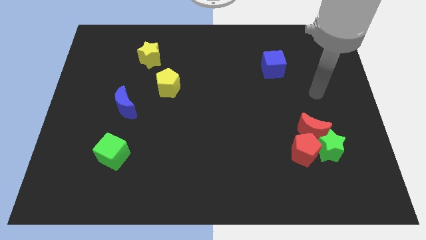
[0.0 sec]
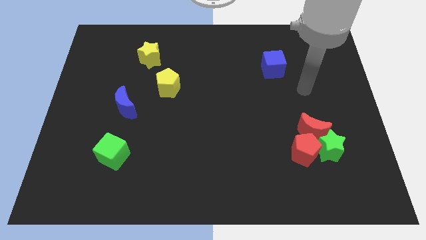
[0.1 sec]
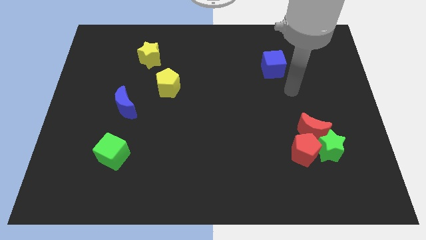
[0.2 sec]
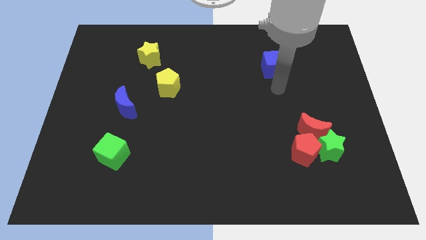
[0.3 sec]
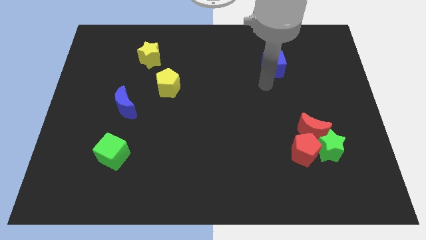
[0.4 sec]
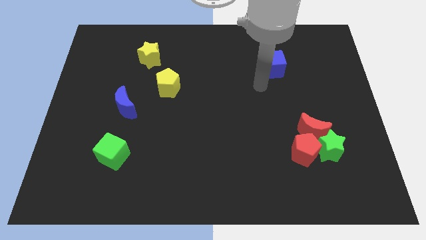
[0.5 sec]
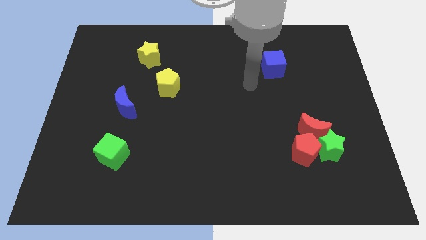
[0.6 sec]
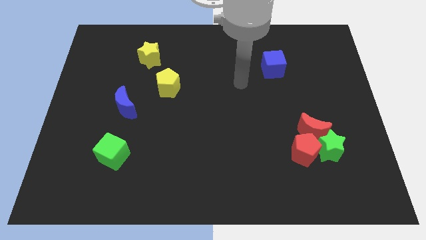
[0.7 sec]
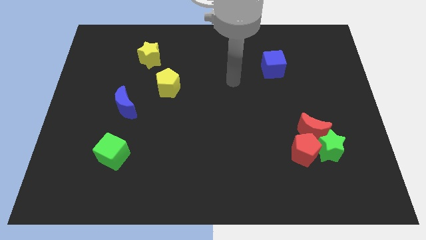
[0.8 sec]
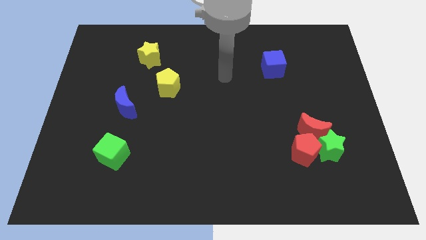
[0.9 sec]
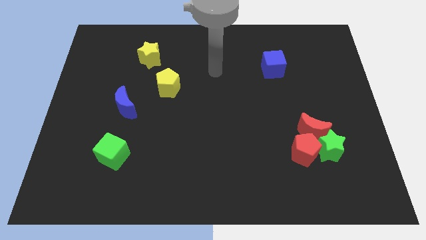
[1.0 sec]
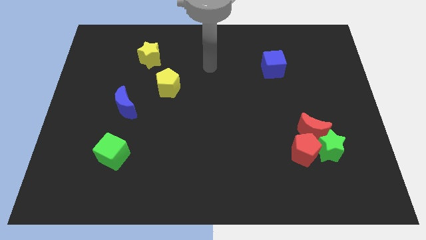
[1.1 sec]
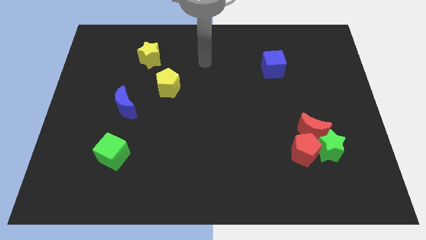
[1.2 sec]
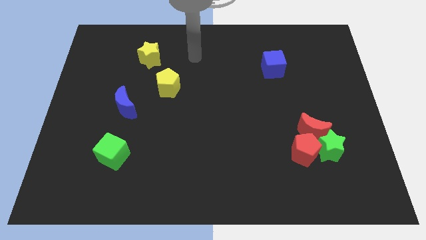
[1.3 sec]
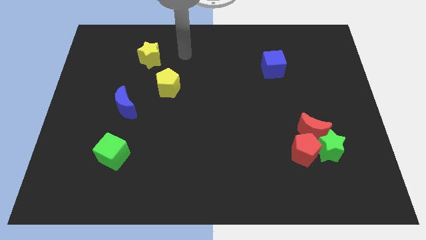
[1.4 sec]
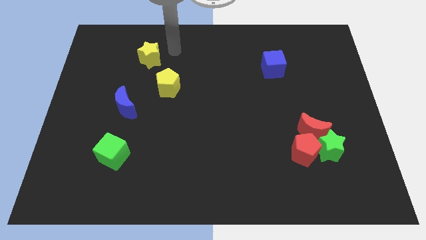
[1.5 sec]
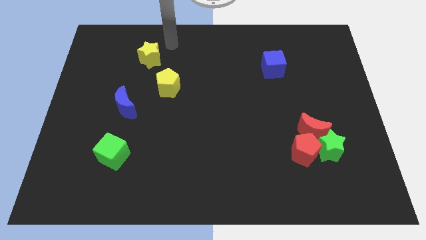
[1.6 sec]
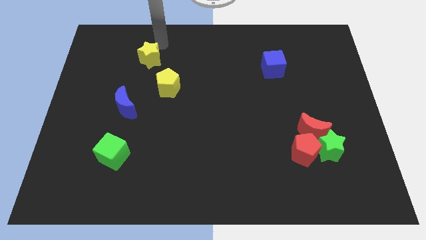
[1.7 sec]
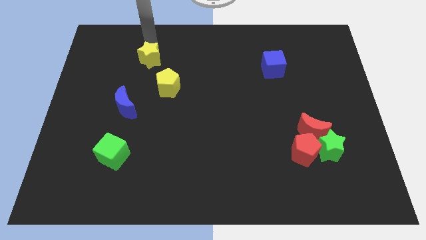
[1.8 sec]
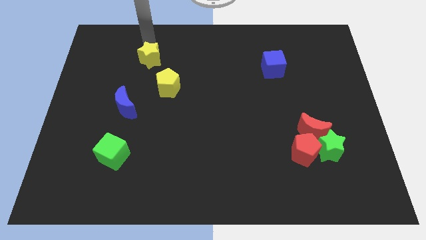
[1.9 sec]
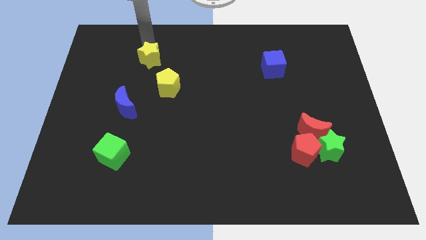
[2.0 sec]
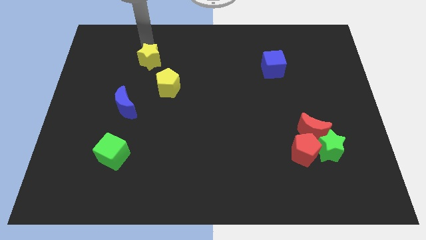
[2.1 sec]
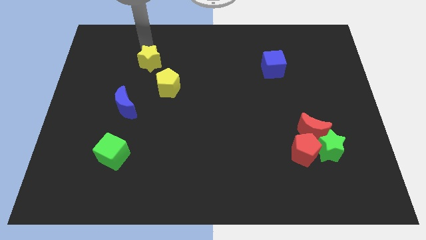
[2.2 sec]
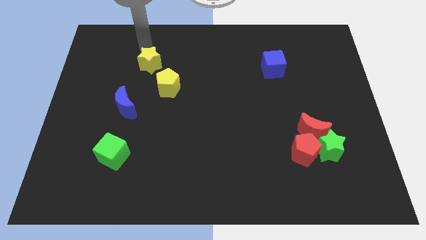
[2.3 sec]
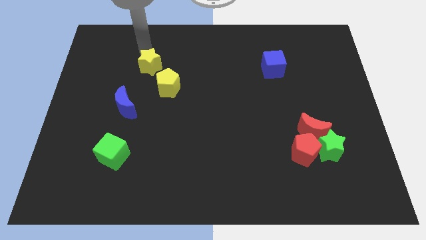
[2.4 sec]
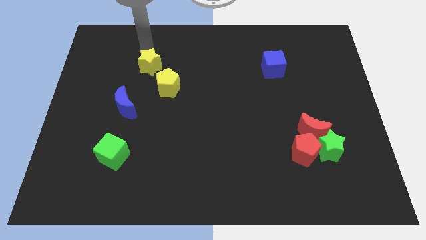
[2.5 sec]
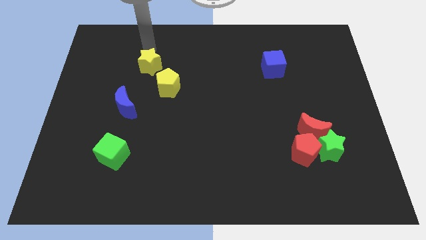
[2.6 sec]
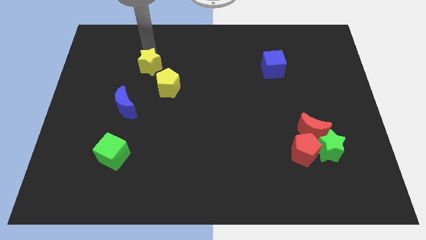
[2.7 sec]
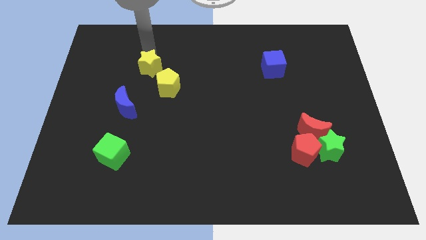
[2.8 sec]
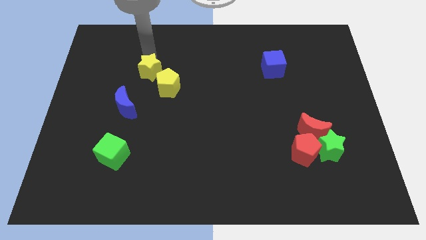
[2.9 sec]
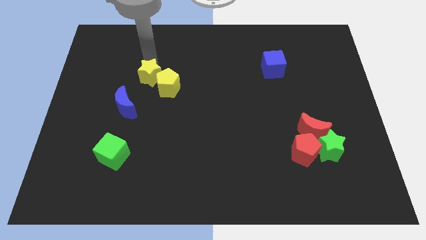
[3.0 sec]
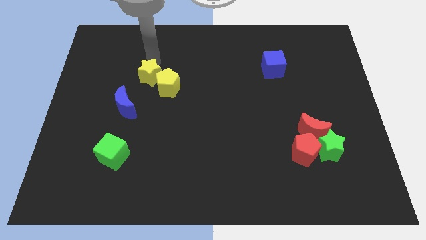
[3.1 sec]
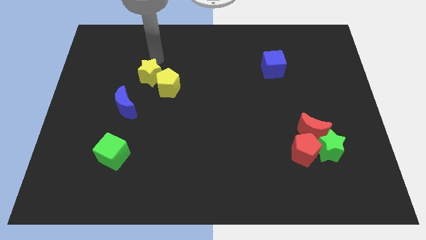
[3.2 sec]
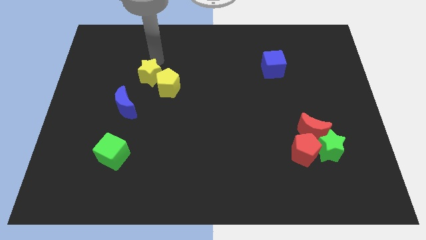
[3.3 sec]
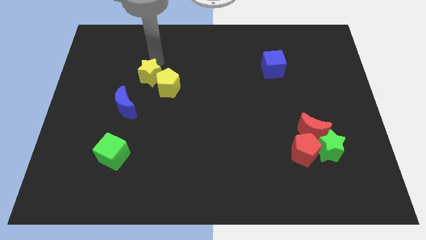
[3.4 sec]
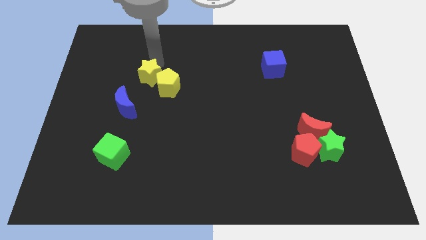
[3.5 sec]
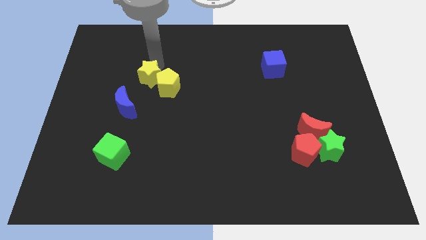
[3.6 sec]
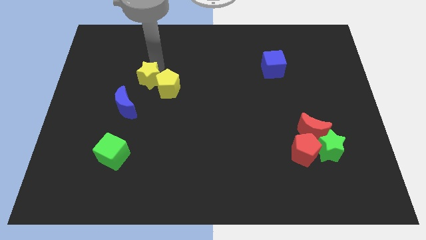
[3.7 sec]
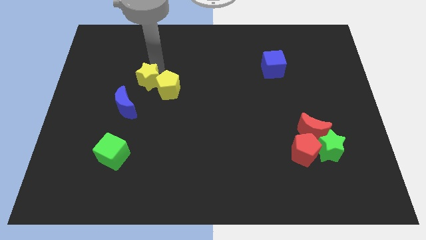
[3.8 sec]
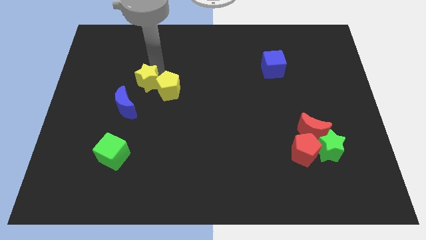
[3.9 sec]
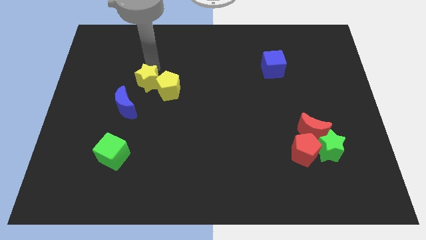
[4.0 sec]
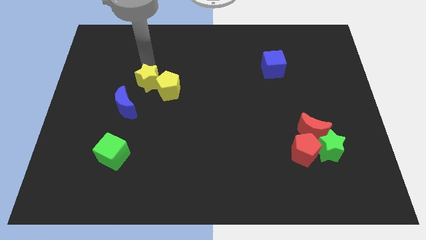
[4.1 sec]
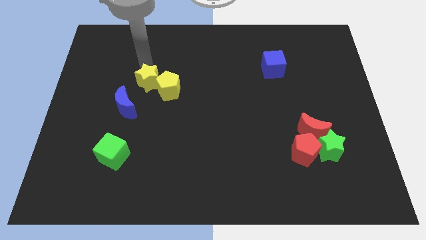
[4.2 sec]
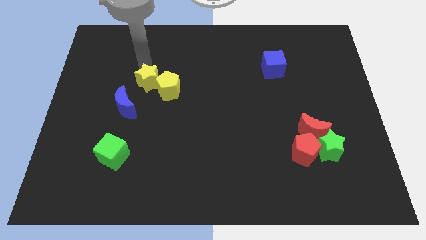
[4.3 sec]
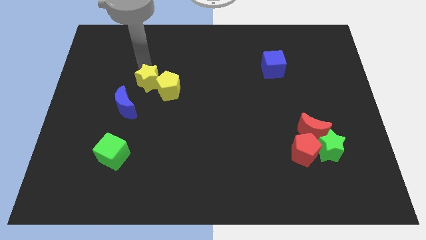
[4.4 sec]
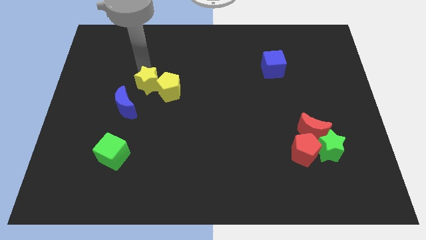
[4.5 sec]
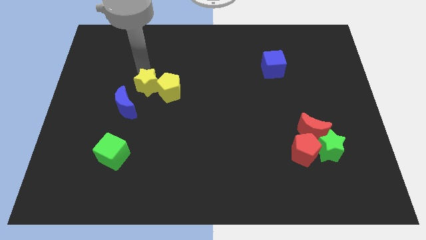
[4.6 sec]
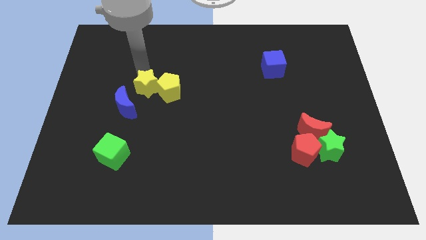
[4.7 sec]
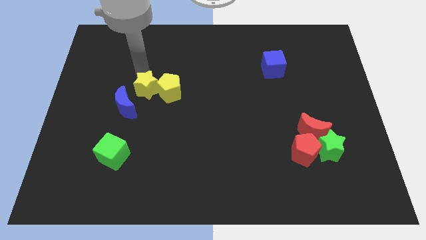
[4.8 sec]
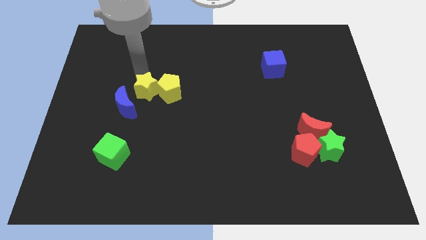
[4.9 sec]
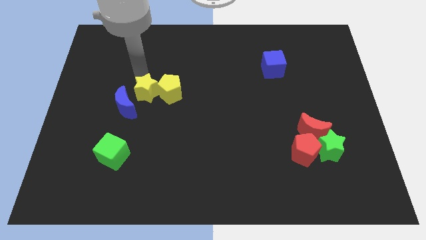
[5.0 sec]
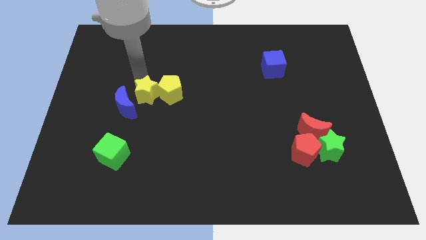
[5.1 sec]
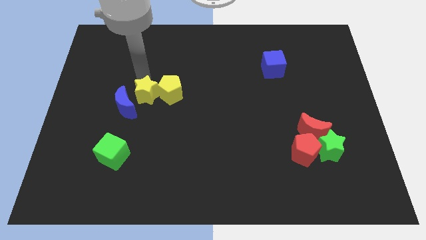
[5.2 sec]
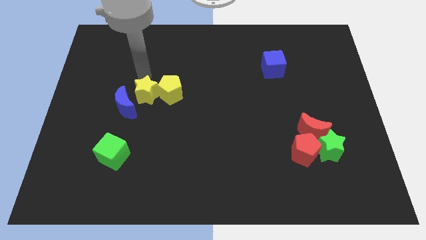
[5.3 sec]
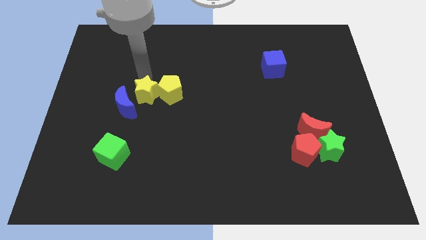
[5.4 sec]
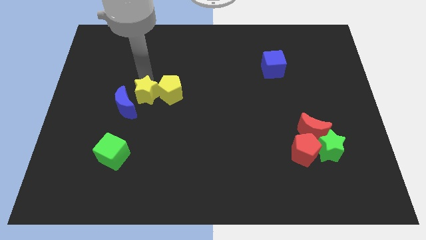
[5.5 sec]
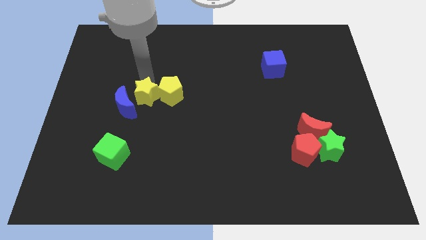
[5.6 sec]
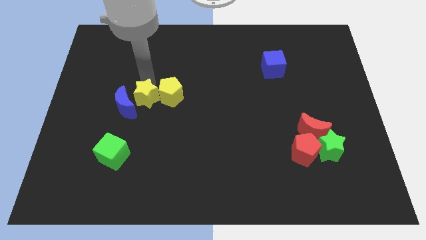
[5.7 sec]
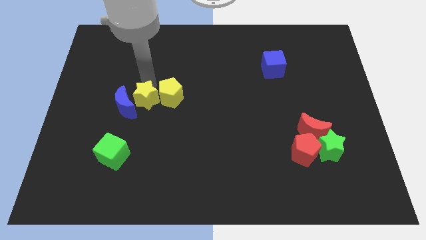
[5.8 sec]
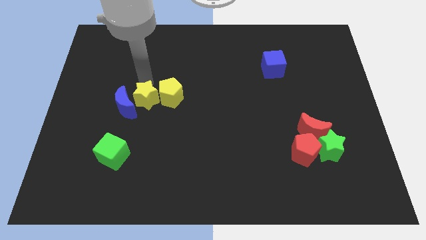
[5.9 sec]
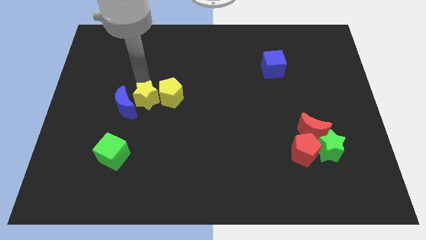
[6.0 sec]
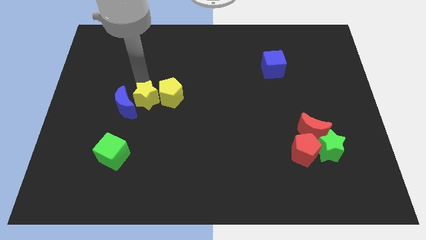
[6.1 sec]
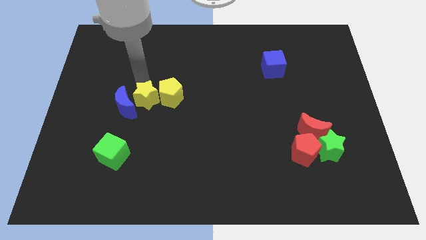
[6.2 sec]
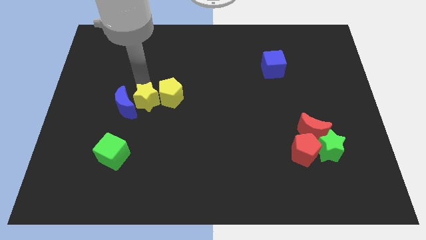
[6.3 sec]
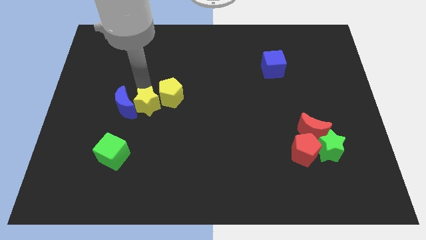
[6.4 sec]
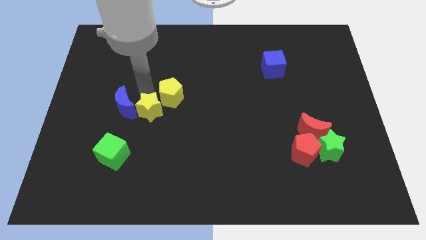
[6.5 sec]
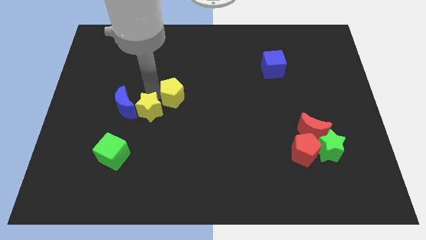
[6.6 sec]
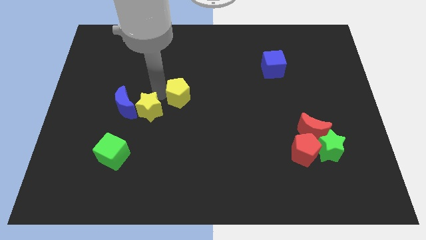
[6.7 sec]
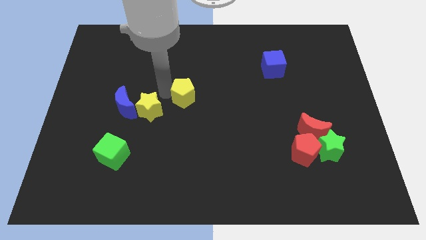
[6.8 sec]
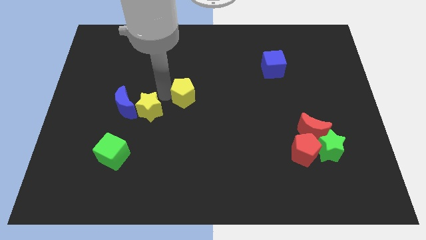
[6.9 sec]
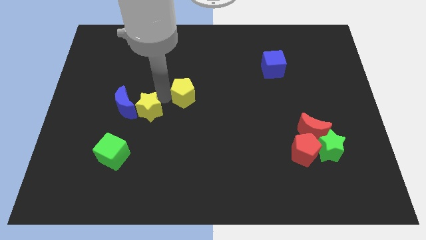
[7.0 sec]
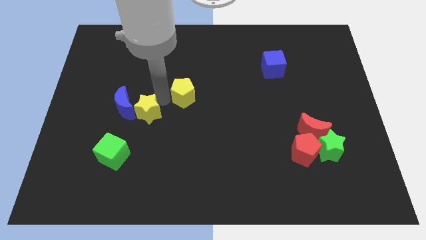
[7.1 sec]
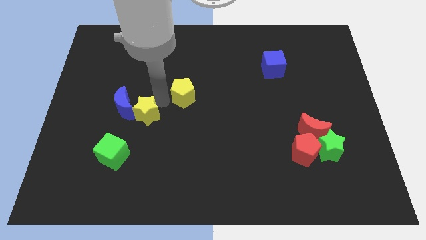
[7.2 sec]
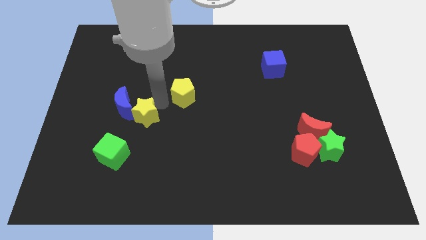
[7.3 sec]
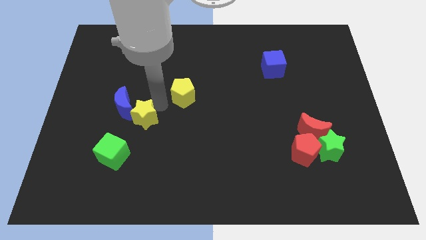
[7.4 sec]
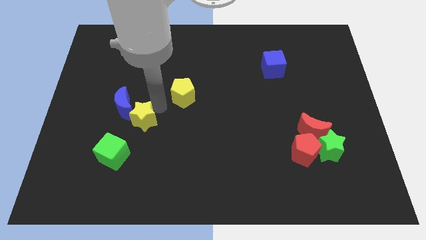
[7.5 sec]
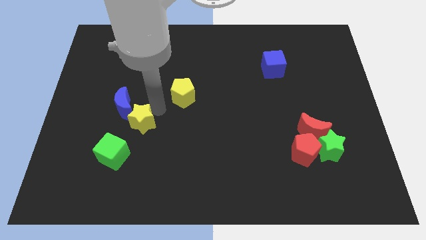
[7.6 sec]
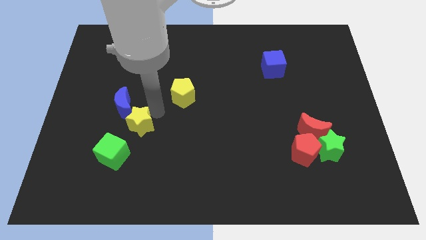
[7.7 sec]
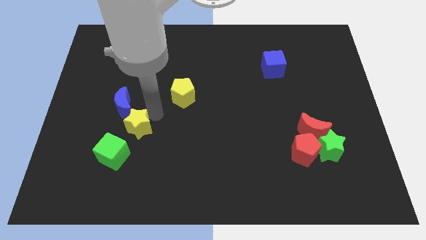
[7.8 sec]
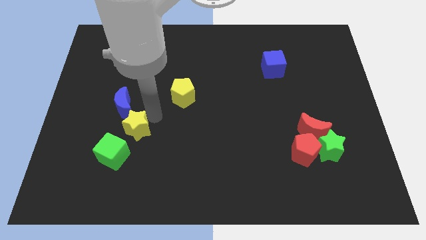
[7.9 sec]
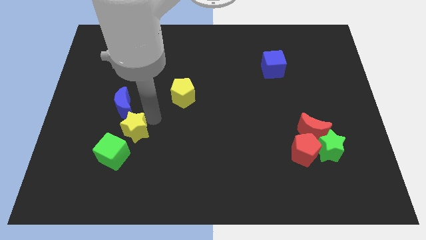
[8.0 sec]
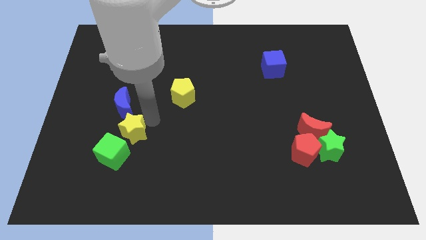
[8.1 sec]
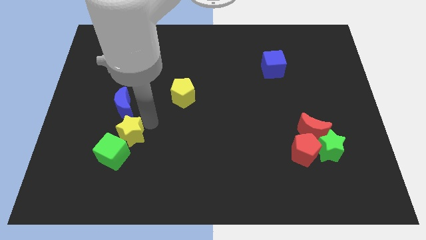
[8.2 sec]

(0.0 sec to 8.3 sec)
push the yellow star towards the green cube
